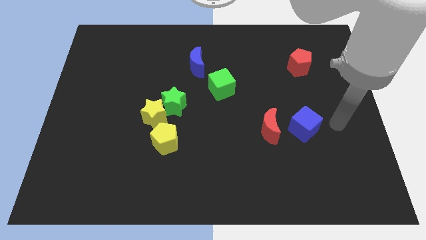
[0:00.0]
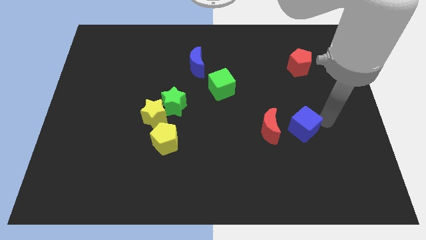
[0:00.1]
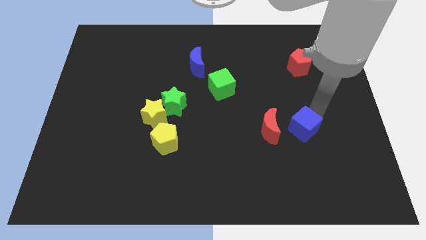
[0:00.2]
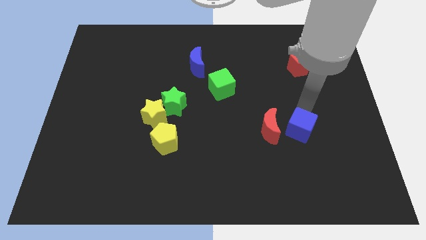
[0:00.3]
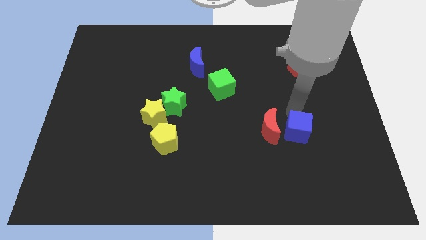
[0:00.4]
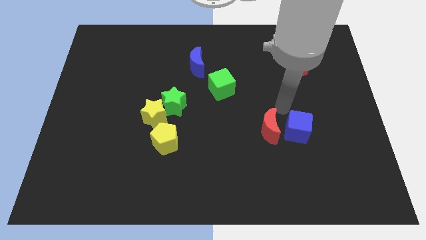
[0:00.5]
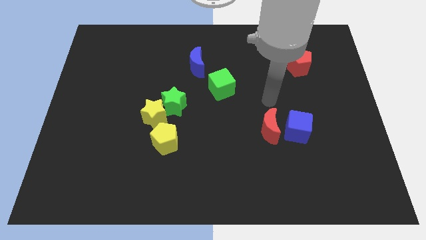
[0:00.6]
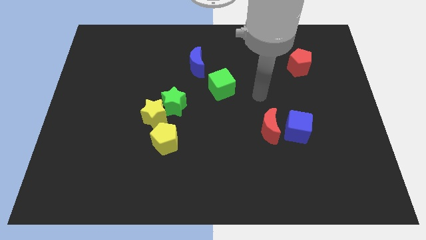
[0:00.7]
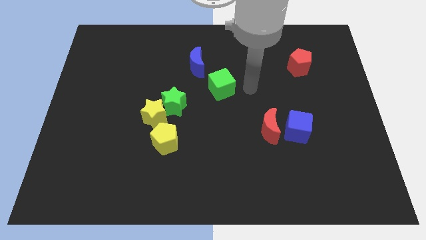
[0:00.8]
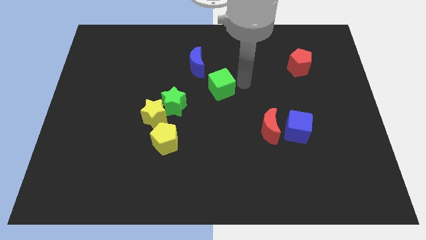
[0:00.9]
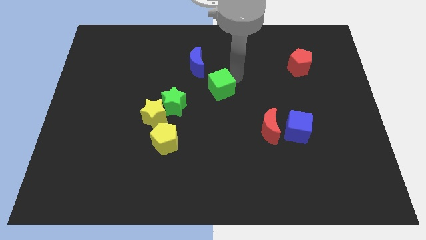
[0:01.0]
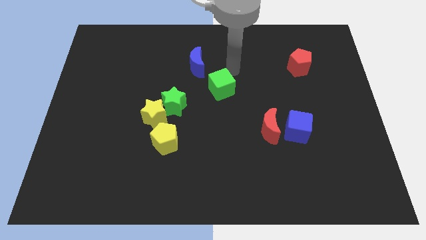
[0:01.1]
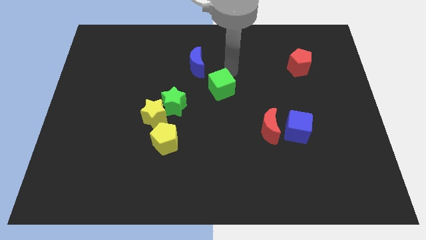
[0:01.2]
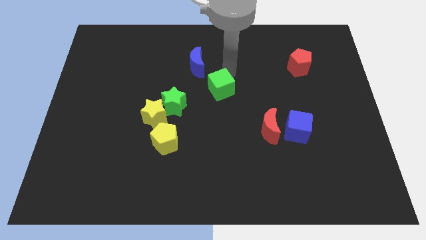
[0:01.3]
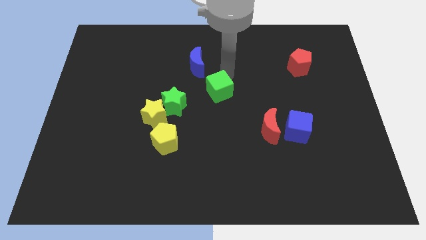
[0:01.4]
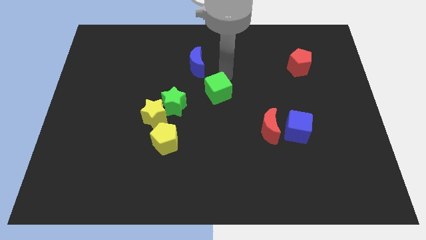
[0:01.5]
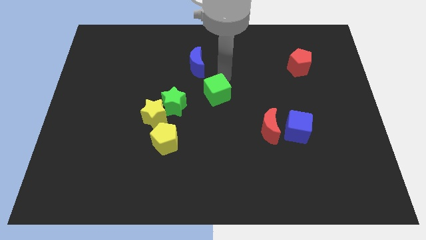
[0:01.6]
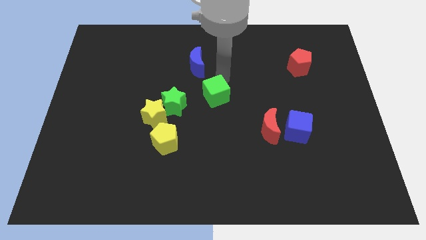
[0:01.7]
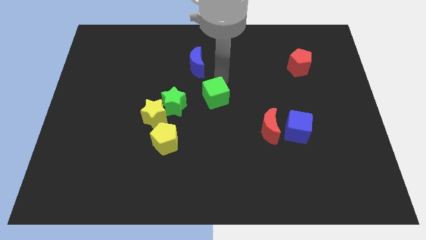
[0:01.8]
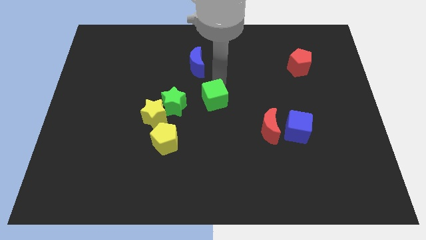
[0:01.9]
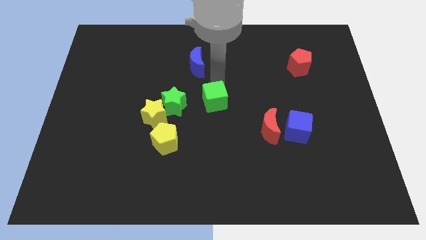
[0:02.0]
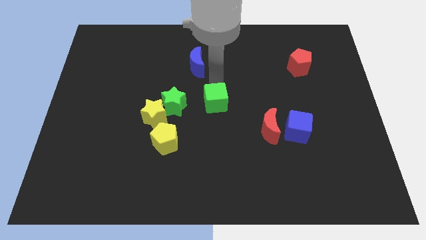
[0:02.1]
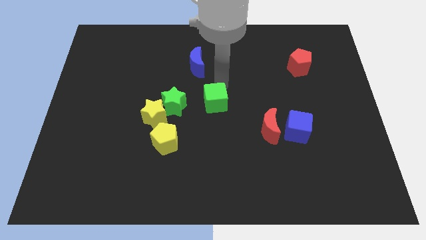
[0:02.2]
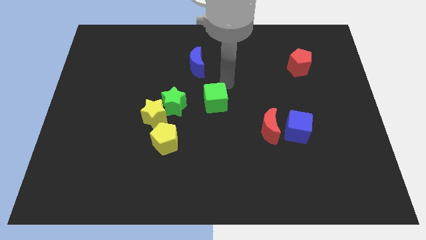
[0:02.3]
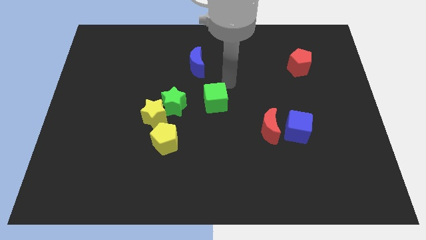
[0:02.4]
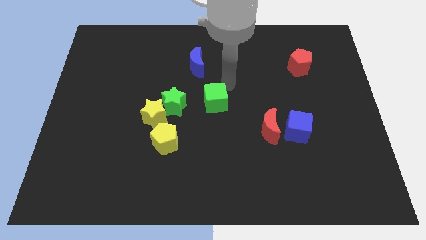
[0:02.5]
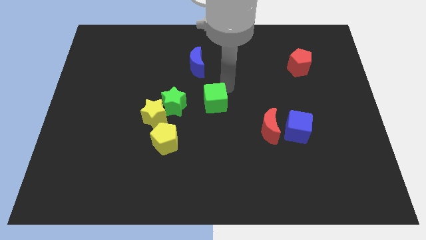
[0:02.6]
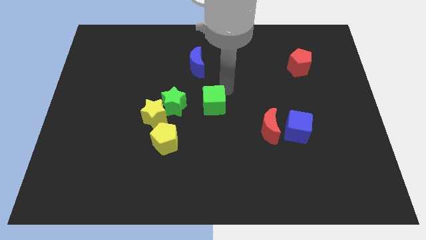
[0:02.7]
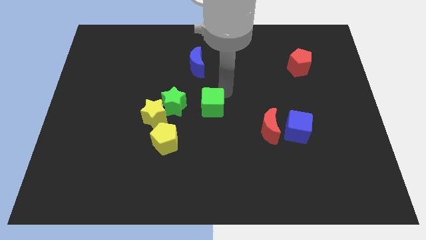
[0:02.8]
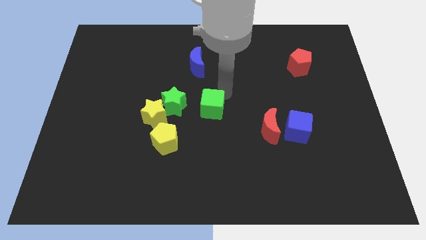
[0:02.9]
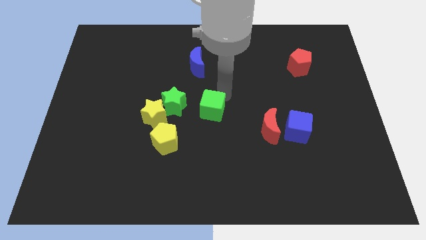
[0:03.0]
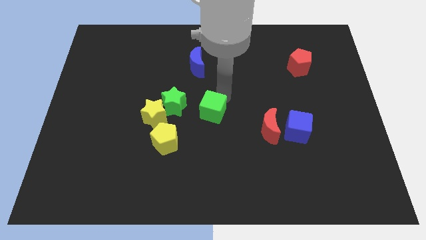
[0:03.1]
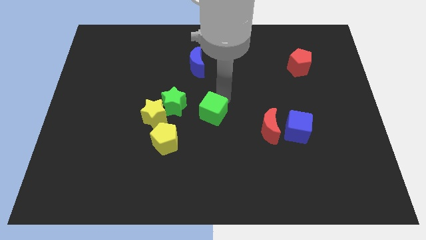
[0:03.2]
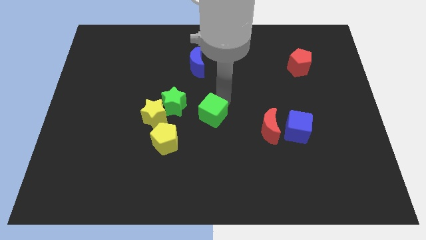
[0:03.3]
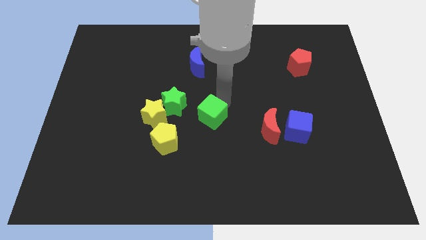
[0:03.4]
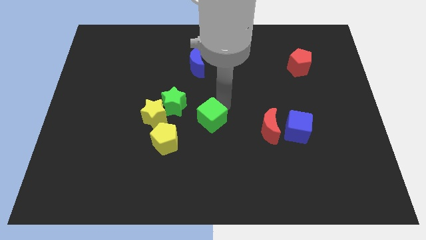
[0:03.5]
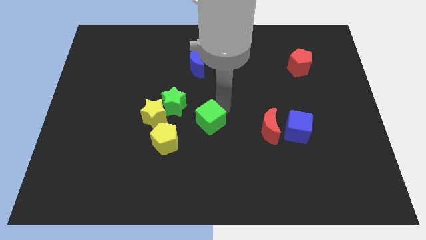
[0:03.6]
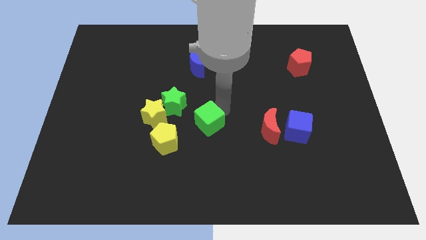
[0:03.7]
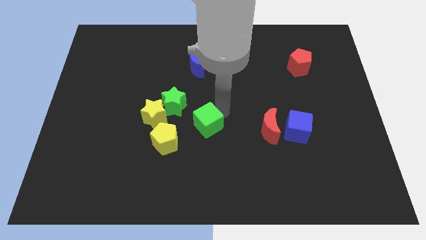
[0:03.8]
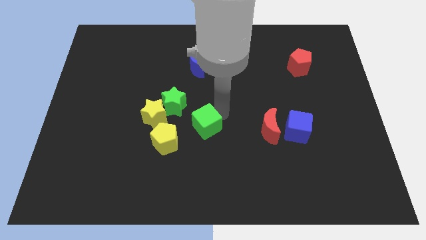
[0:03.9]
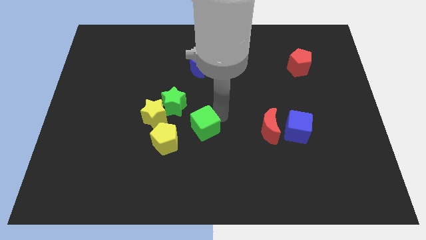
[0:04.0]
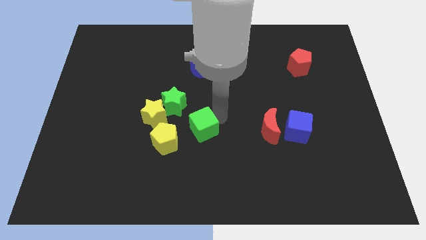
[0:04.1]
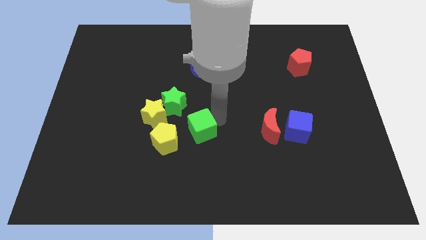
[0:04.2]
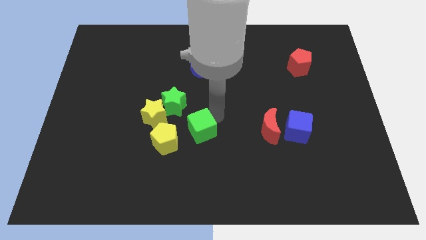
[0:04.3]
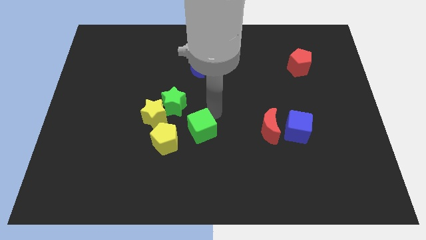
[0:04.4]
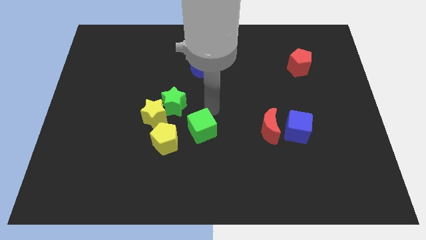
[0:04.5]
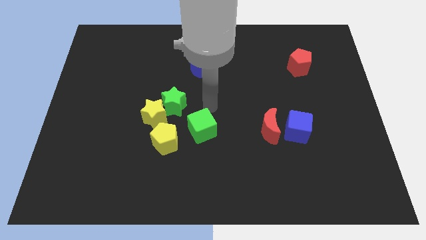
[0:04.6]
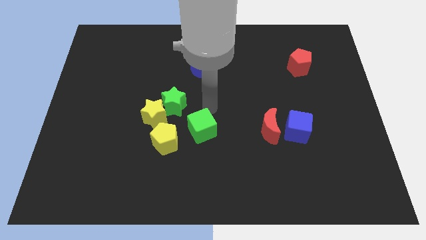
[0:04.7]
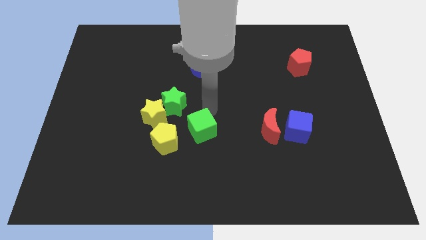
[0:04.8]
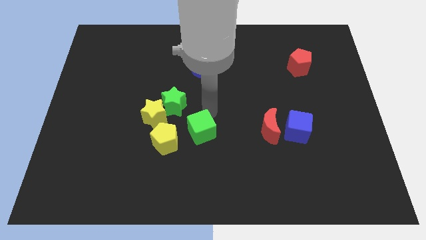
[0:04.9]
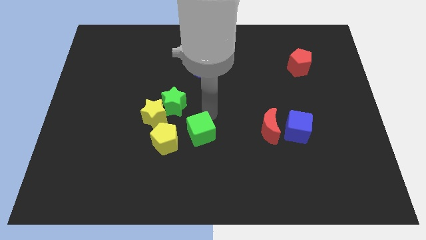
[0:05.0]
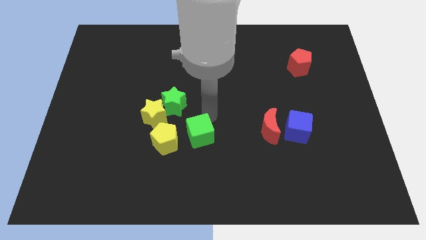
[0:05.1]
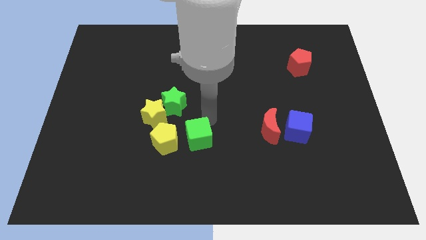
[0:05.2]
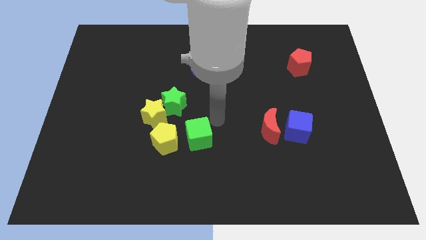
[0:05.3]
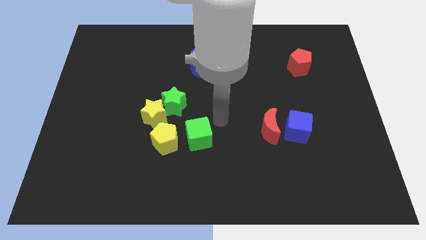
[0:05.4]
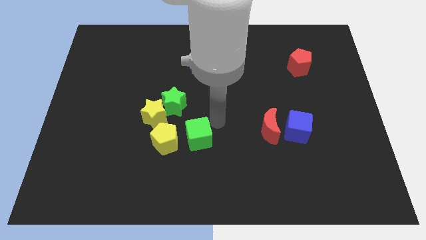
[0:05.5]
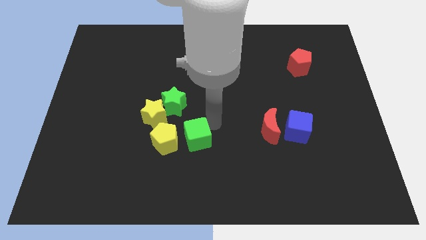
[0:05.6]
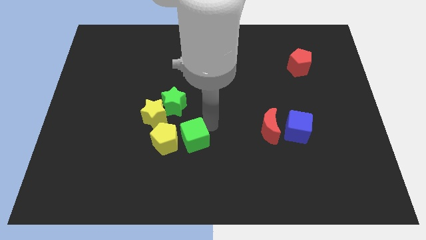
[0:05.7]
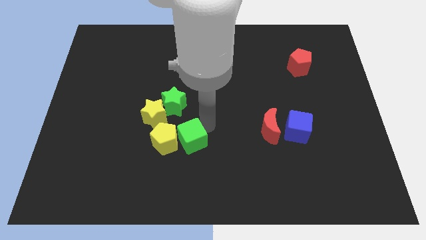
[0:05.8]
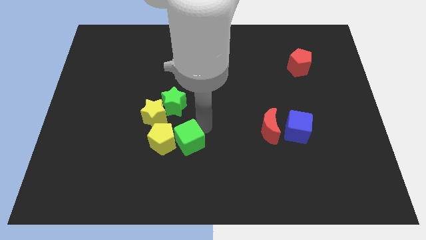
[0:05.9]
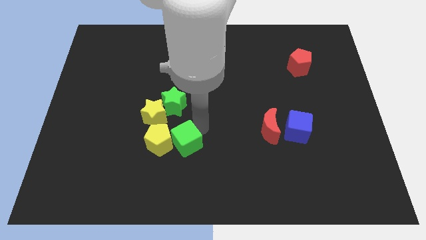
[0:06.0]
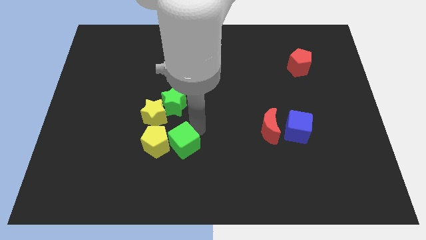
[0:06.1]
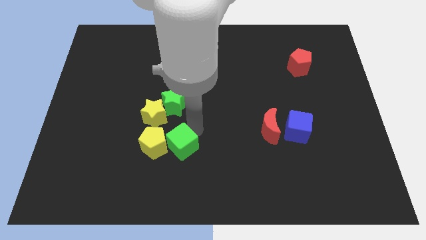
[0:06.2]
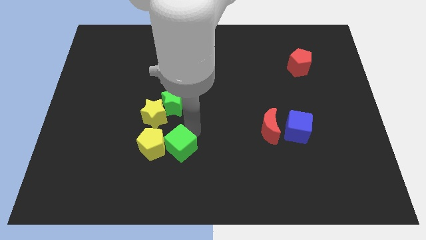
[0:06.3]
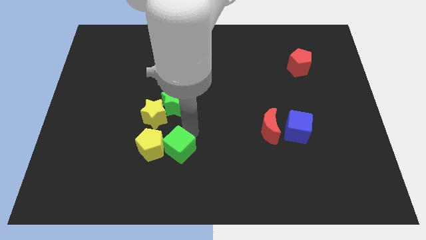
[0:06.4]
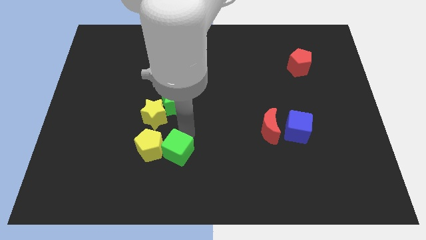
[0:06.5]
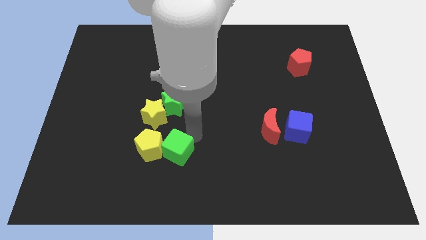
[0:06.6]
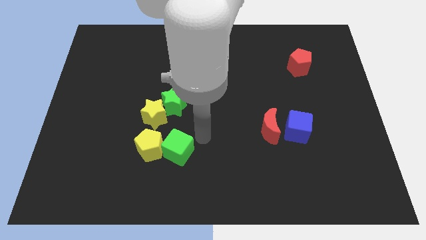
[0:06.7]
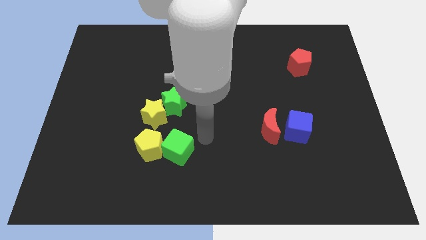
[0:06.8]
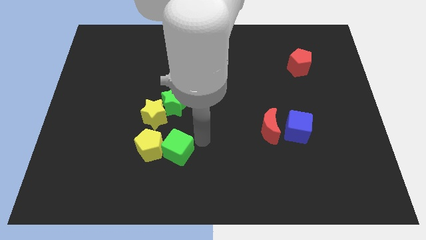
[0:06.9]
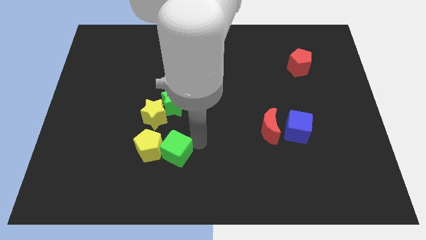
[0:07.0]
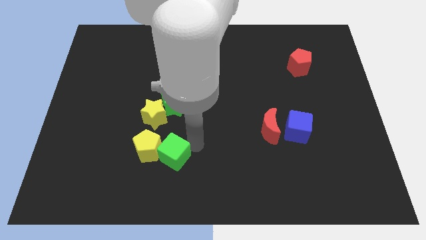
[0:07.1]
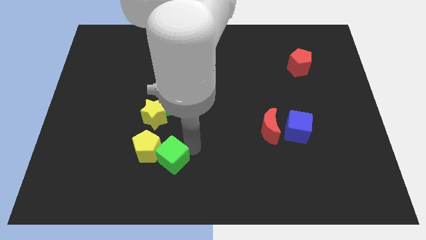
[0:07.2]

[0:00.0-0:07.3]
slide the green cube diagonally down and left

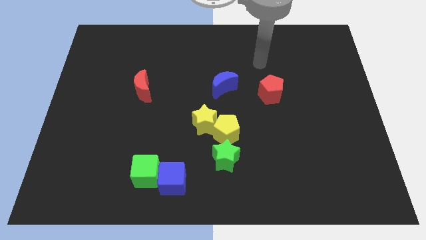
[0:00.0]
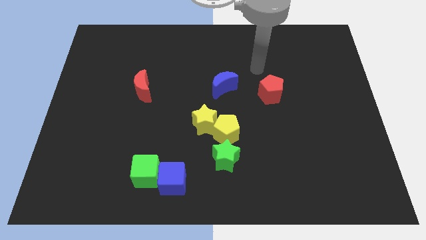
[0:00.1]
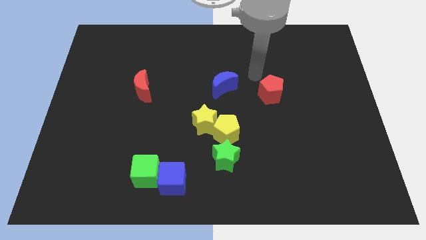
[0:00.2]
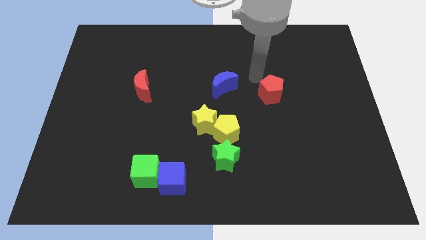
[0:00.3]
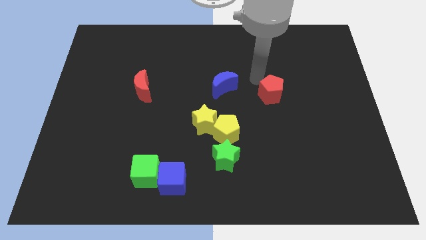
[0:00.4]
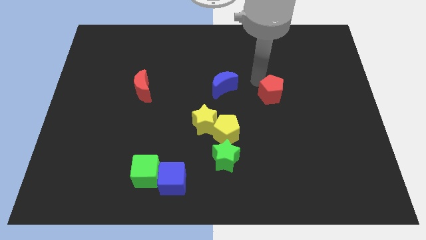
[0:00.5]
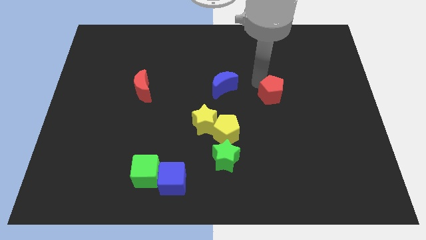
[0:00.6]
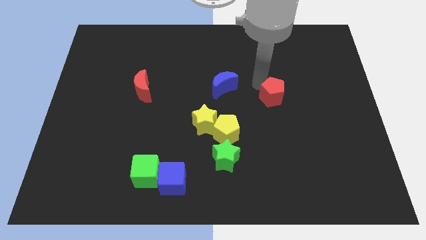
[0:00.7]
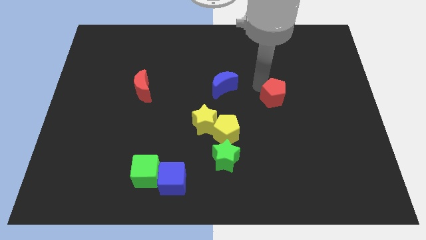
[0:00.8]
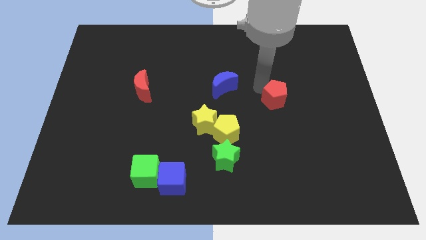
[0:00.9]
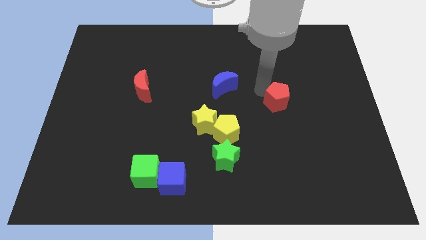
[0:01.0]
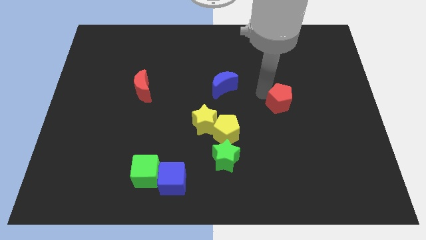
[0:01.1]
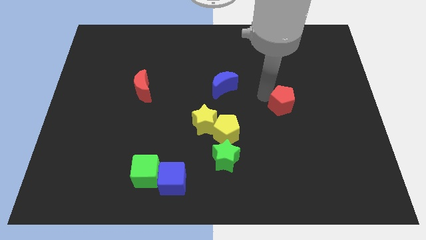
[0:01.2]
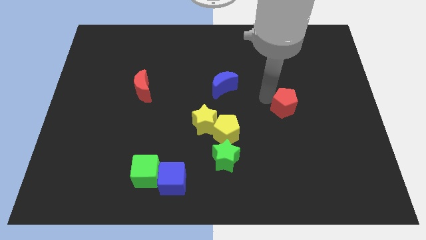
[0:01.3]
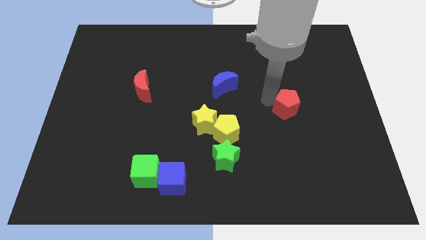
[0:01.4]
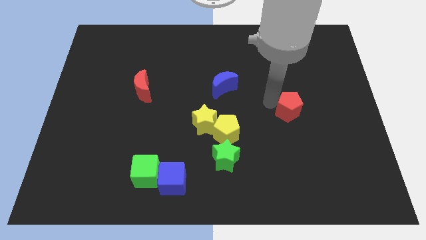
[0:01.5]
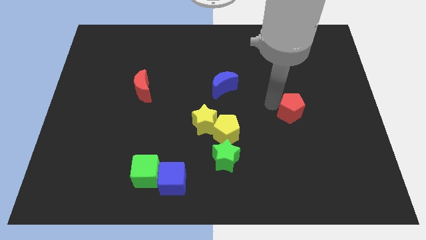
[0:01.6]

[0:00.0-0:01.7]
slightly move the red pentagon diagonally down and right
